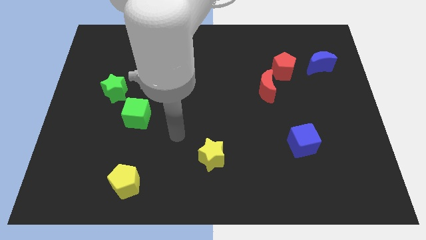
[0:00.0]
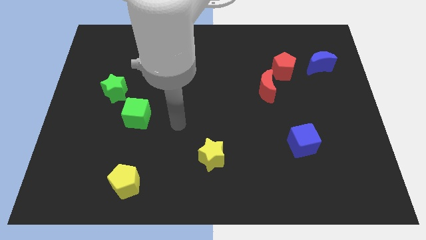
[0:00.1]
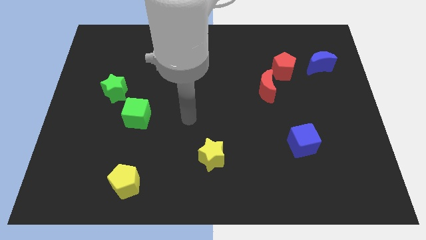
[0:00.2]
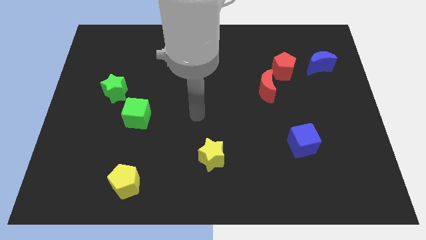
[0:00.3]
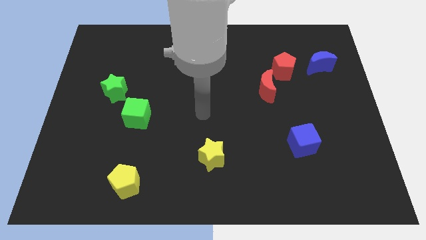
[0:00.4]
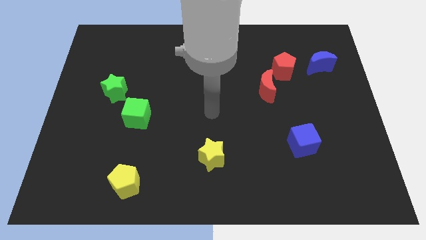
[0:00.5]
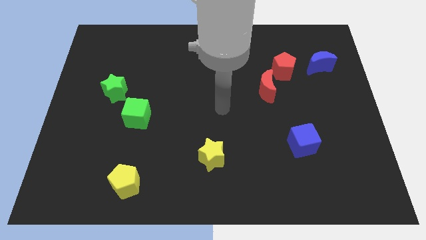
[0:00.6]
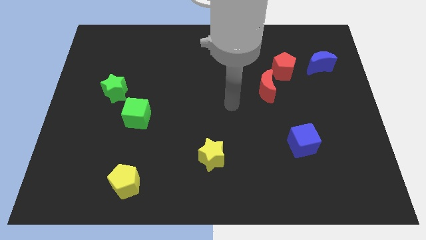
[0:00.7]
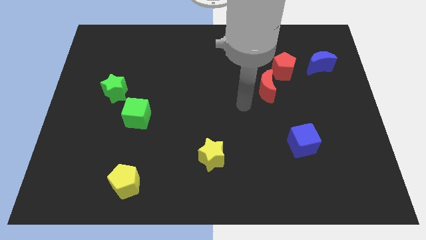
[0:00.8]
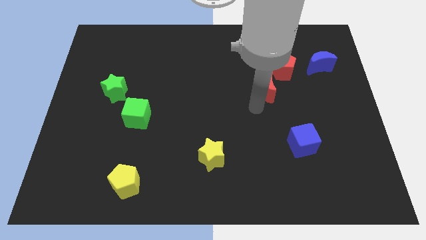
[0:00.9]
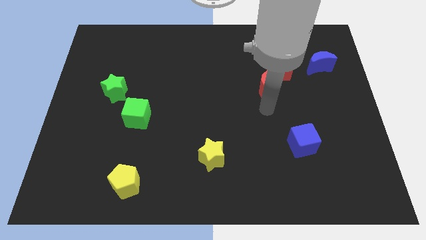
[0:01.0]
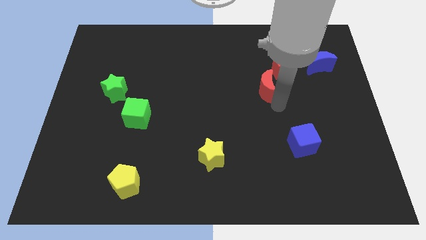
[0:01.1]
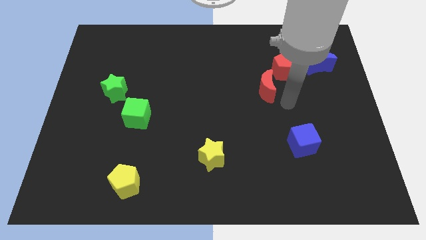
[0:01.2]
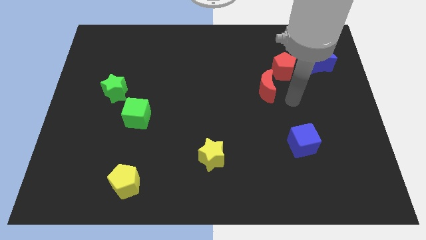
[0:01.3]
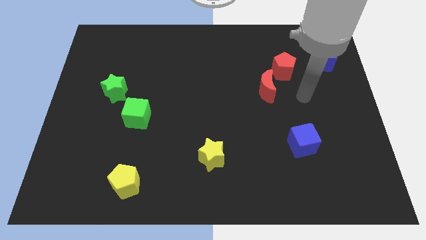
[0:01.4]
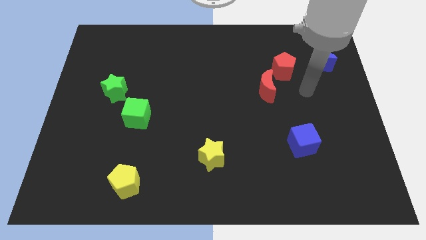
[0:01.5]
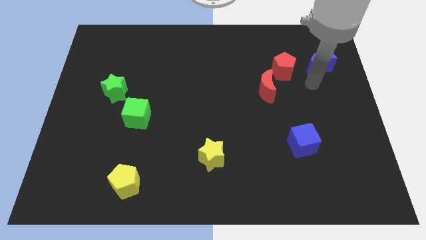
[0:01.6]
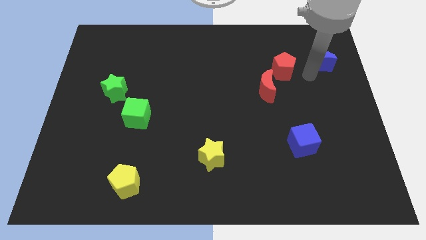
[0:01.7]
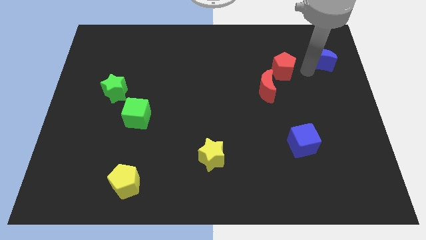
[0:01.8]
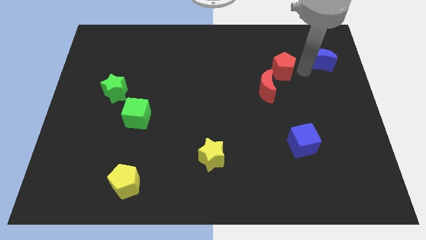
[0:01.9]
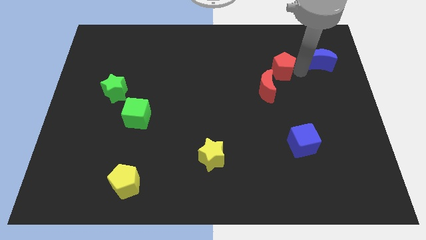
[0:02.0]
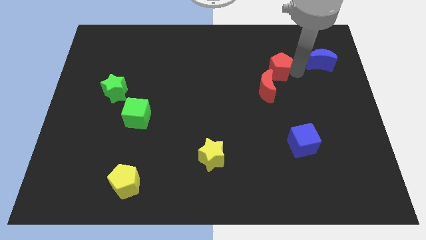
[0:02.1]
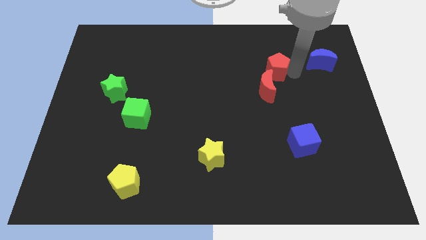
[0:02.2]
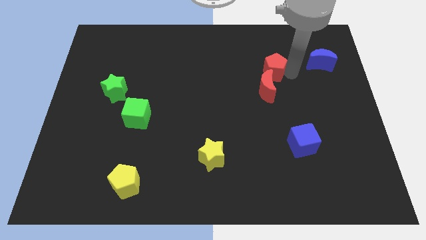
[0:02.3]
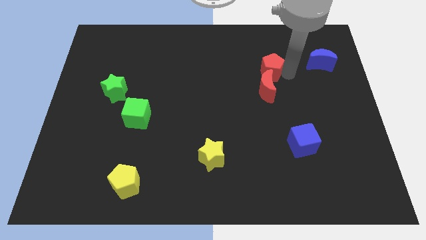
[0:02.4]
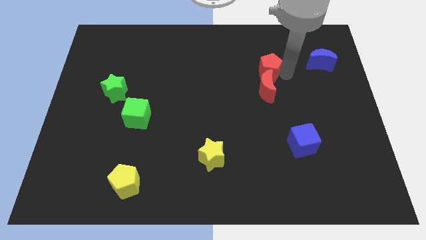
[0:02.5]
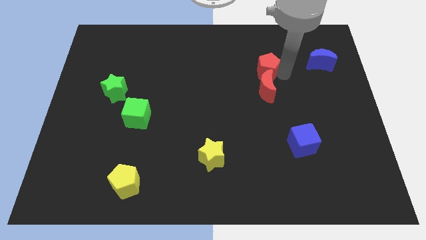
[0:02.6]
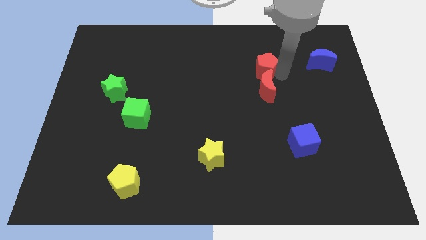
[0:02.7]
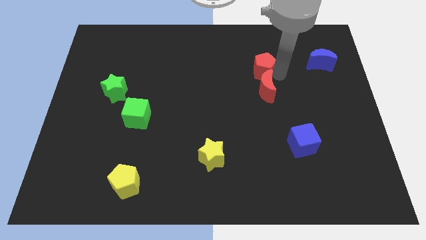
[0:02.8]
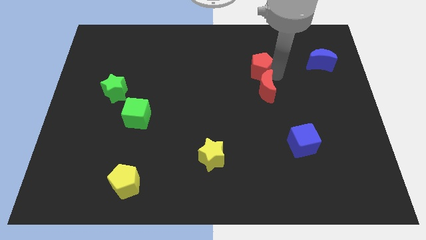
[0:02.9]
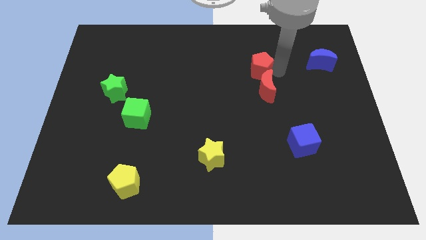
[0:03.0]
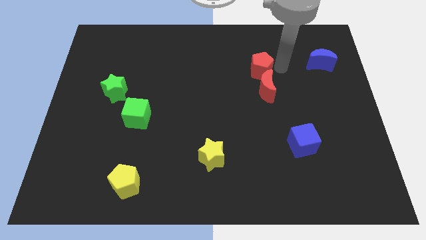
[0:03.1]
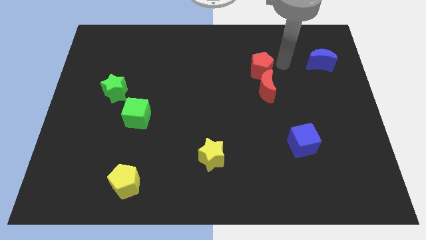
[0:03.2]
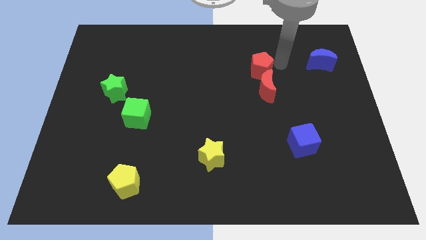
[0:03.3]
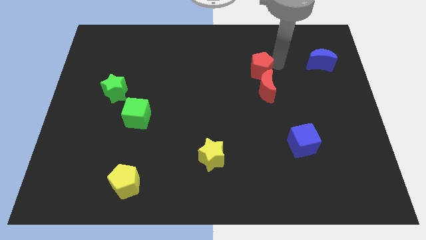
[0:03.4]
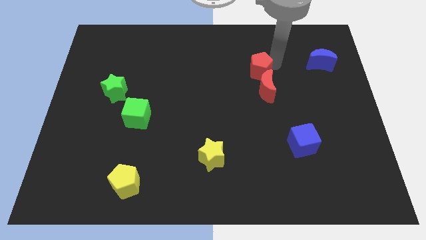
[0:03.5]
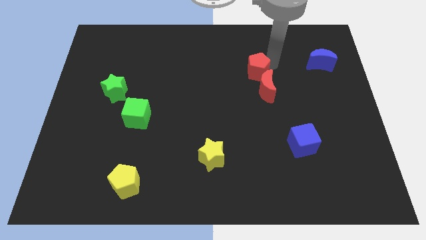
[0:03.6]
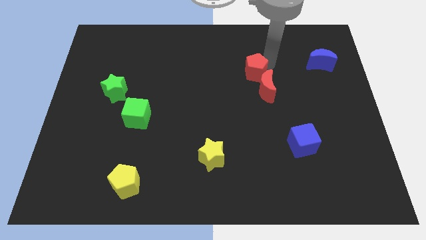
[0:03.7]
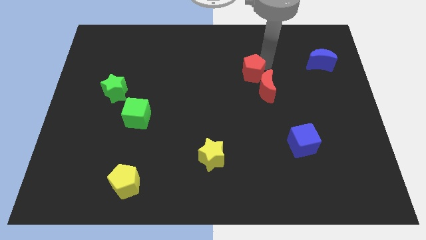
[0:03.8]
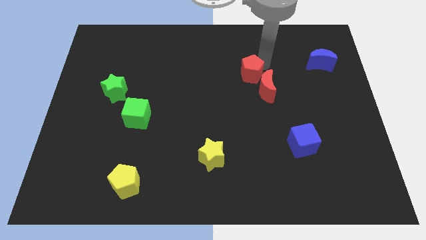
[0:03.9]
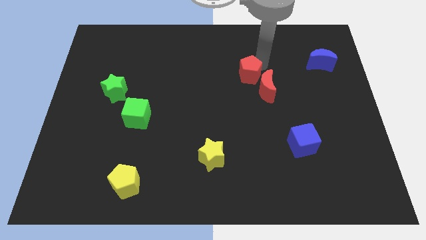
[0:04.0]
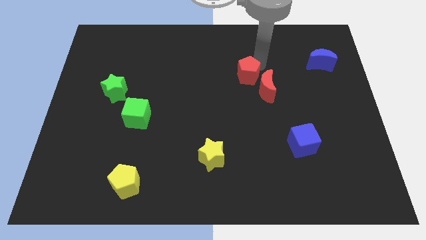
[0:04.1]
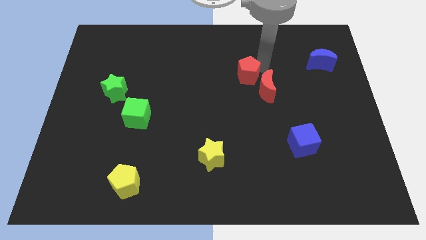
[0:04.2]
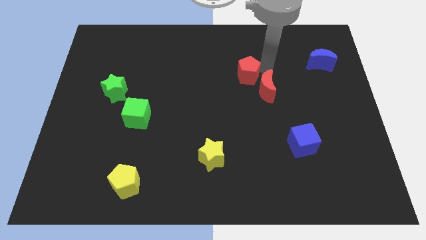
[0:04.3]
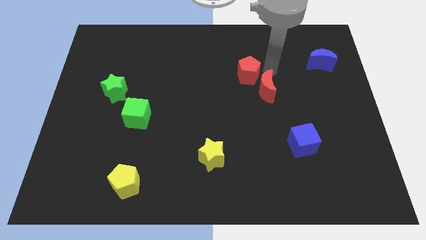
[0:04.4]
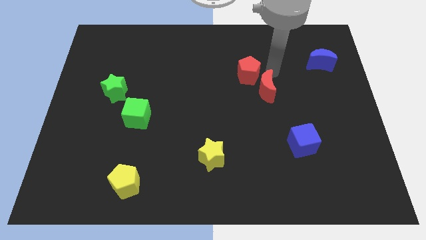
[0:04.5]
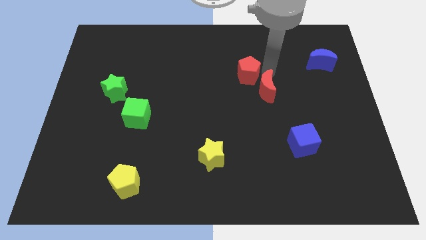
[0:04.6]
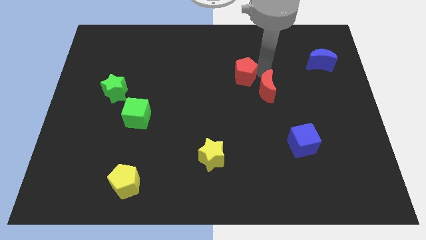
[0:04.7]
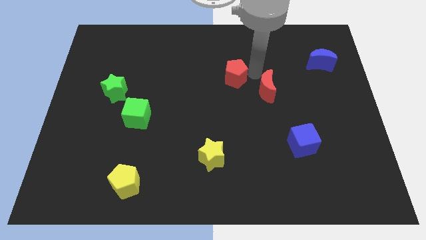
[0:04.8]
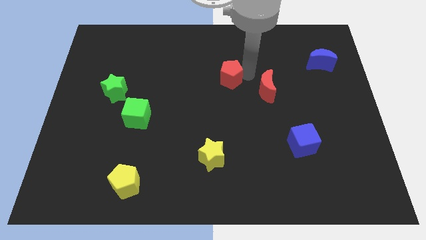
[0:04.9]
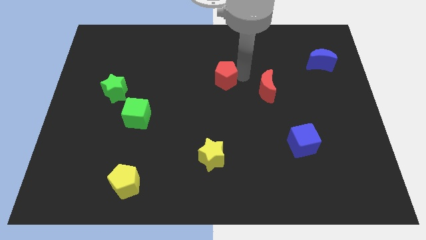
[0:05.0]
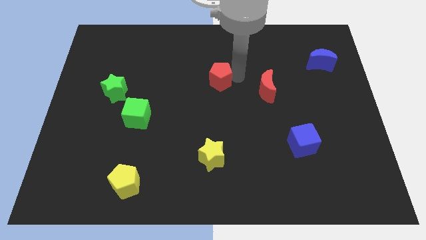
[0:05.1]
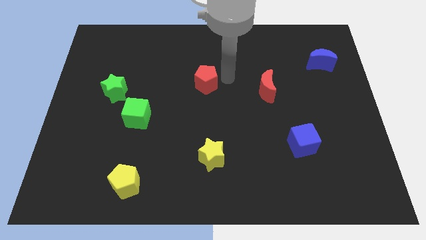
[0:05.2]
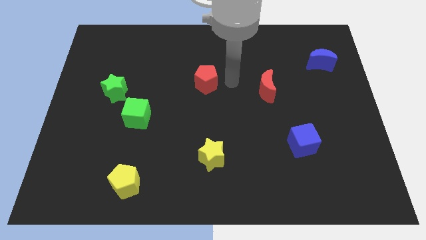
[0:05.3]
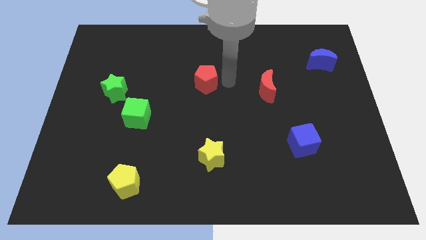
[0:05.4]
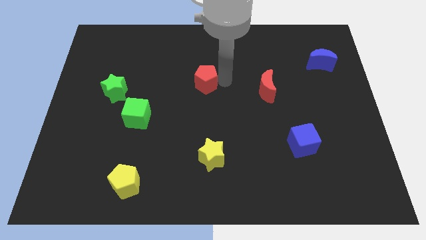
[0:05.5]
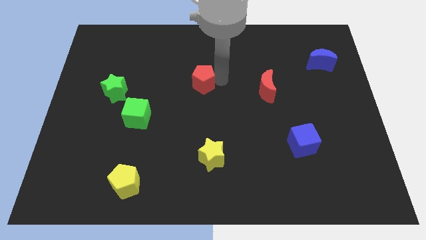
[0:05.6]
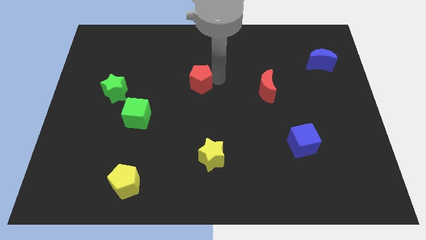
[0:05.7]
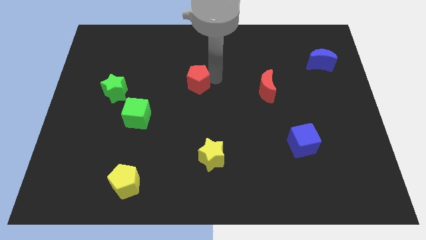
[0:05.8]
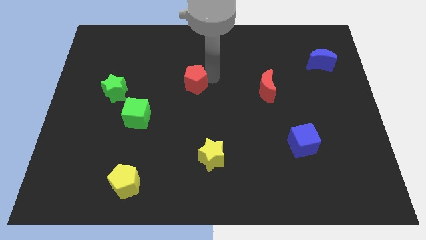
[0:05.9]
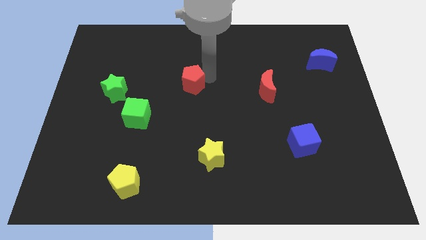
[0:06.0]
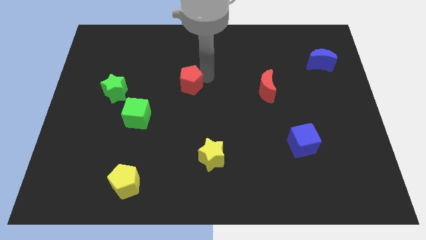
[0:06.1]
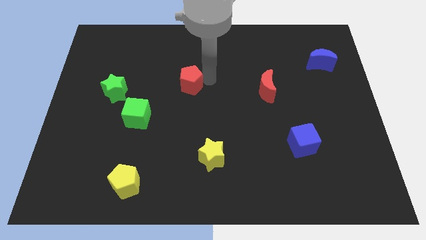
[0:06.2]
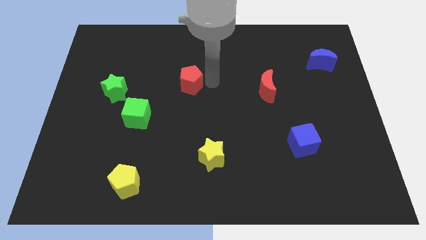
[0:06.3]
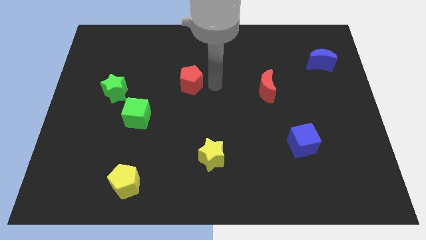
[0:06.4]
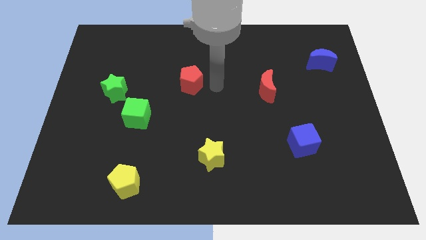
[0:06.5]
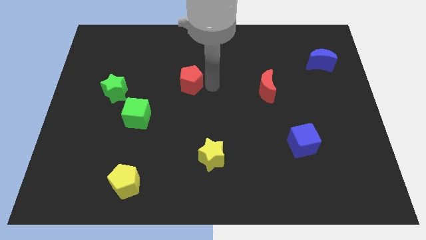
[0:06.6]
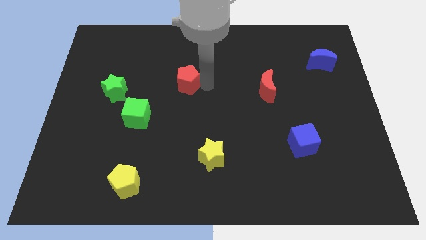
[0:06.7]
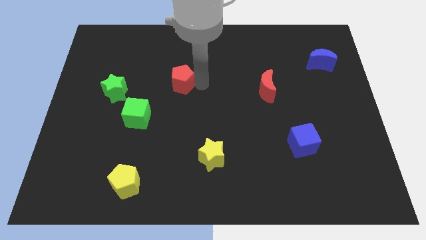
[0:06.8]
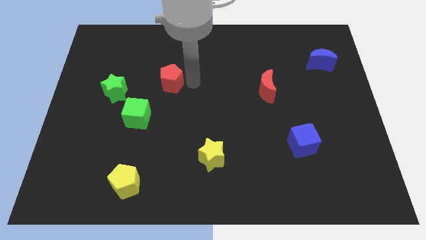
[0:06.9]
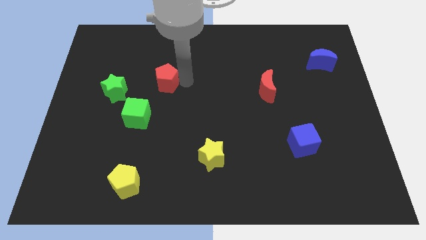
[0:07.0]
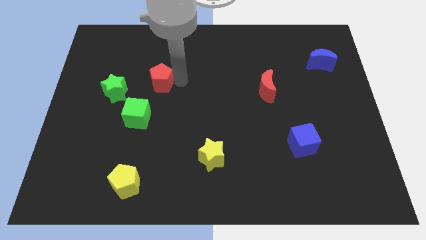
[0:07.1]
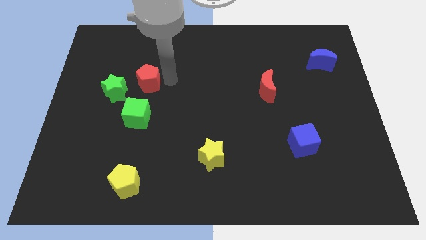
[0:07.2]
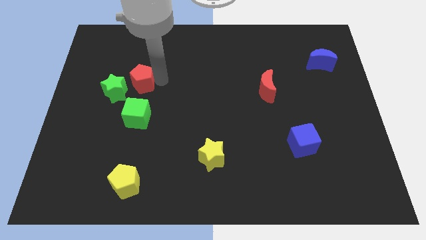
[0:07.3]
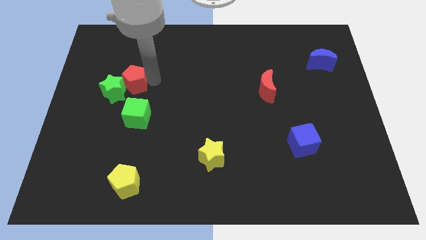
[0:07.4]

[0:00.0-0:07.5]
move the red pentagon towards the green star

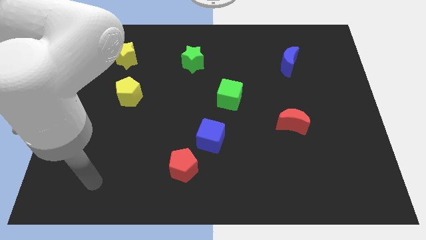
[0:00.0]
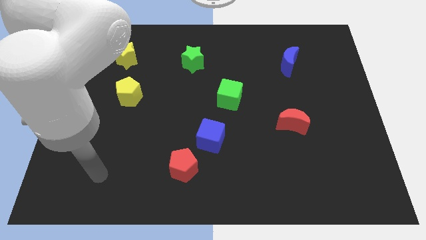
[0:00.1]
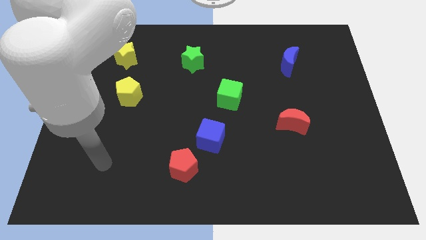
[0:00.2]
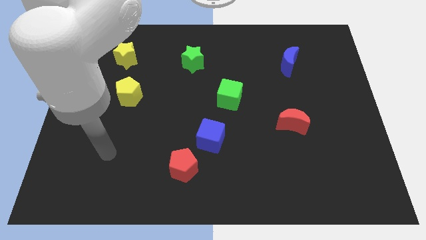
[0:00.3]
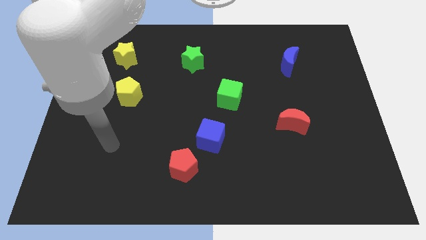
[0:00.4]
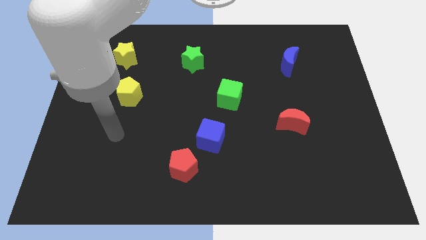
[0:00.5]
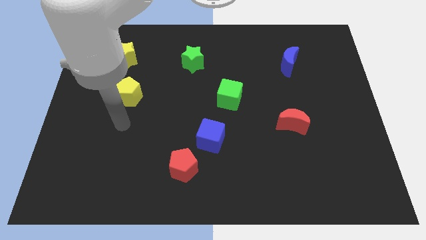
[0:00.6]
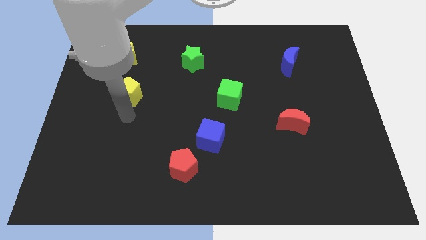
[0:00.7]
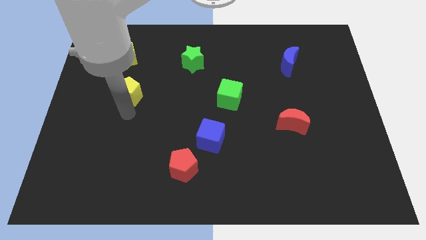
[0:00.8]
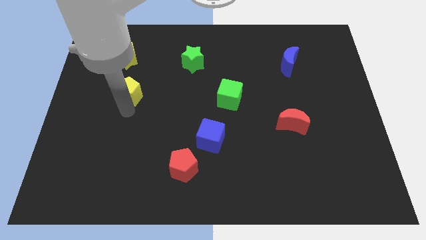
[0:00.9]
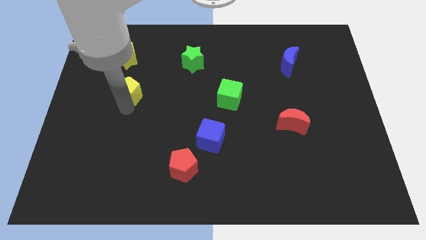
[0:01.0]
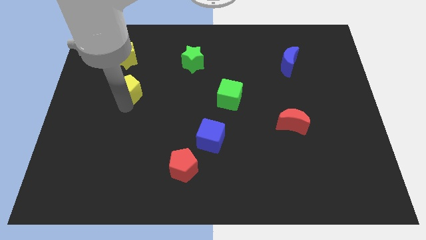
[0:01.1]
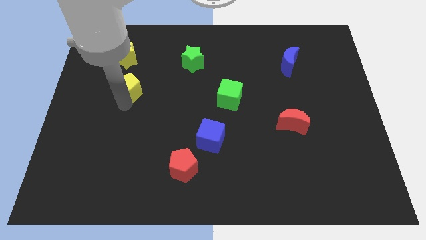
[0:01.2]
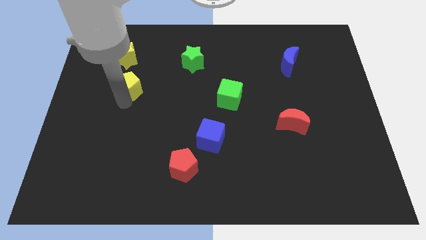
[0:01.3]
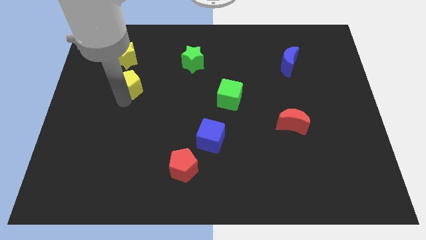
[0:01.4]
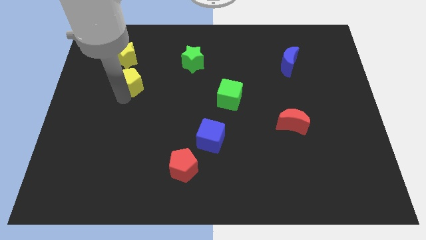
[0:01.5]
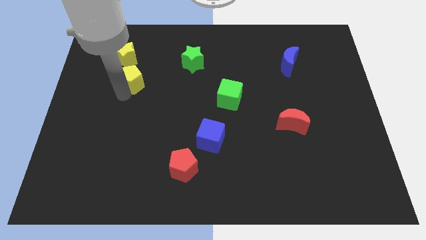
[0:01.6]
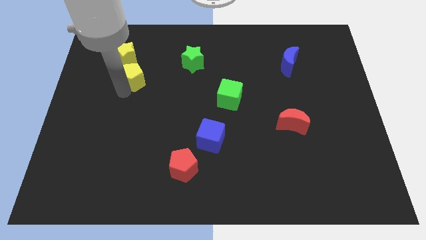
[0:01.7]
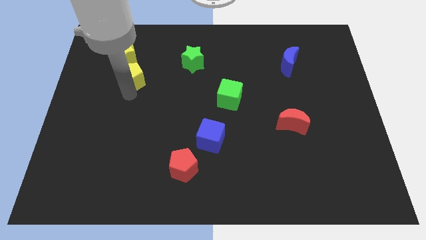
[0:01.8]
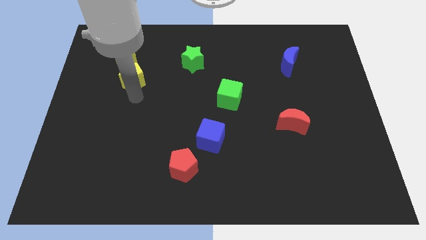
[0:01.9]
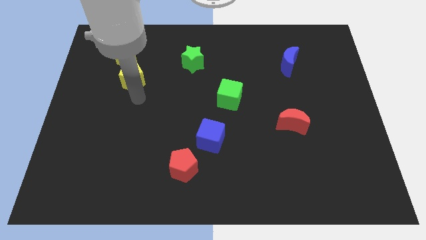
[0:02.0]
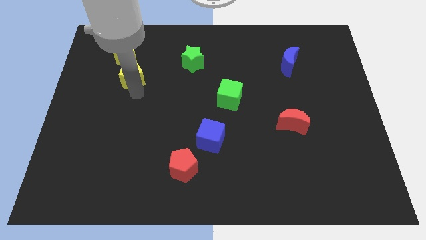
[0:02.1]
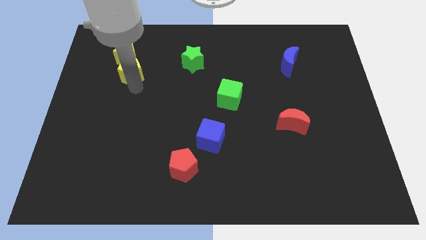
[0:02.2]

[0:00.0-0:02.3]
slide the yellow pentagon next to the yellow star
